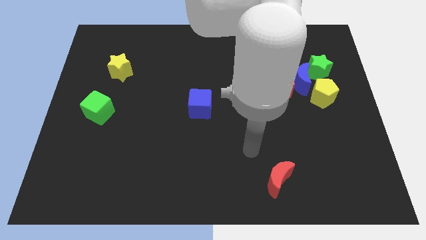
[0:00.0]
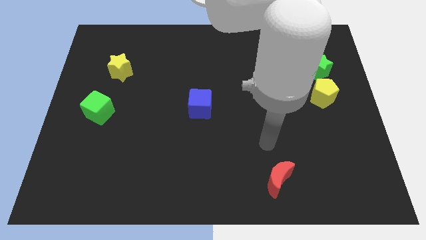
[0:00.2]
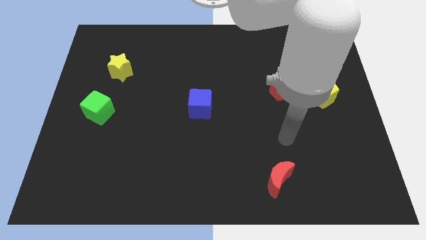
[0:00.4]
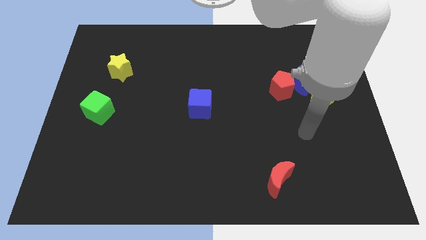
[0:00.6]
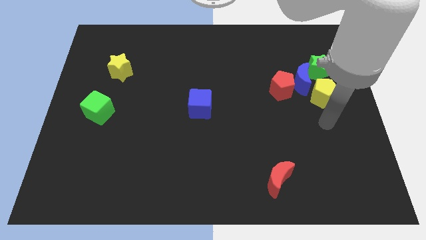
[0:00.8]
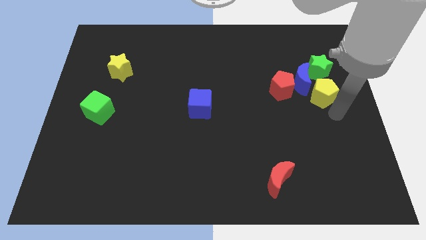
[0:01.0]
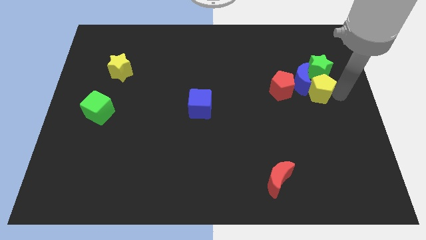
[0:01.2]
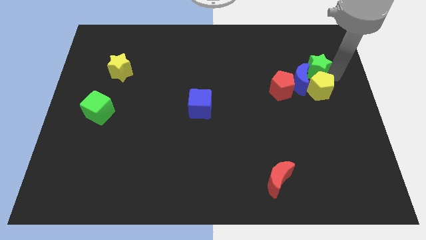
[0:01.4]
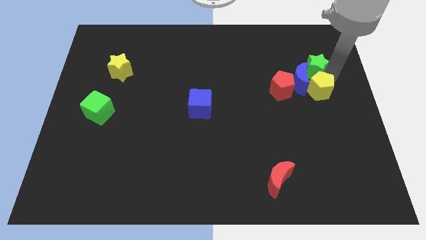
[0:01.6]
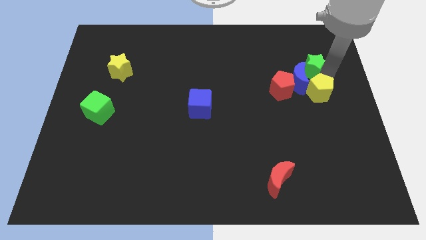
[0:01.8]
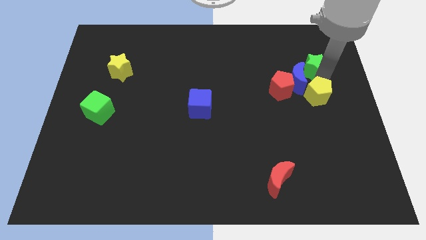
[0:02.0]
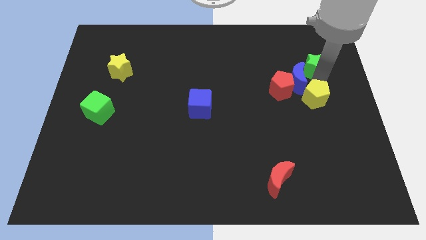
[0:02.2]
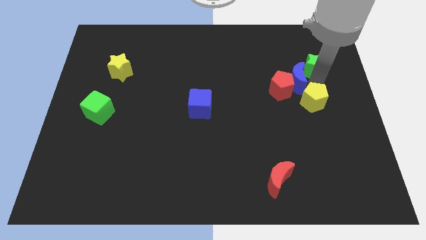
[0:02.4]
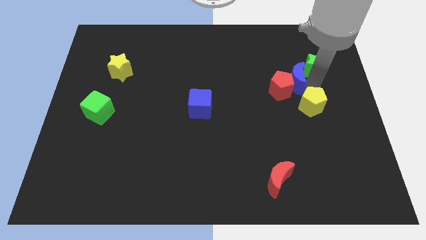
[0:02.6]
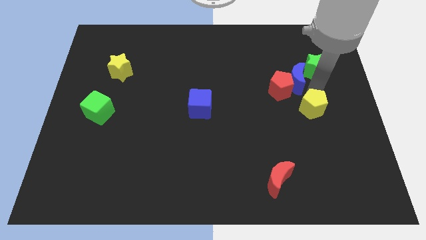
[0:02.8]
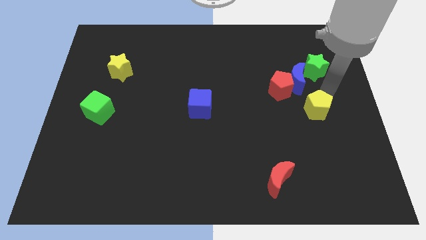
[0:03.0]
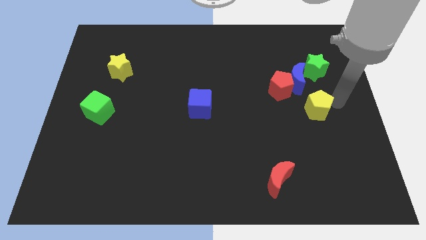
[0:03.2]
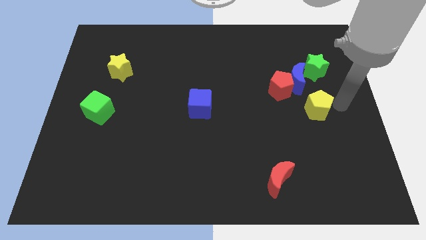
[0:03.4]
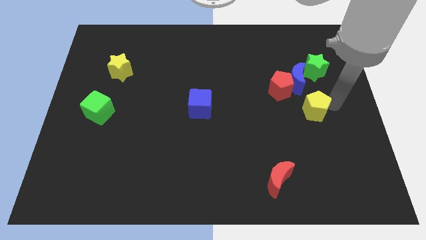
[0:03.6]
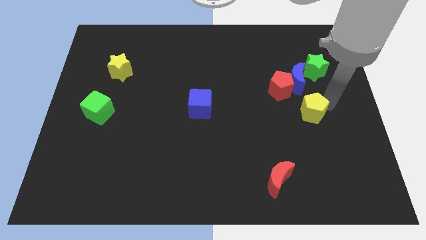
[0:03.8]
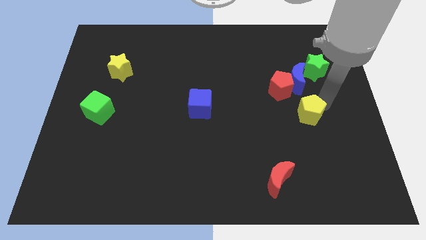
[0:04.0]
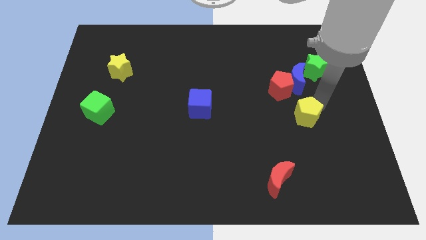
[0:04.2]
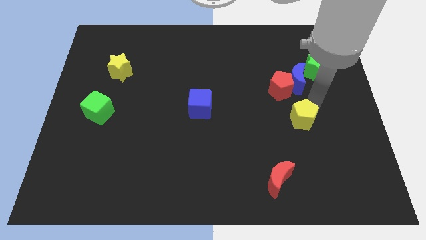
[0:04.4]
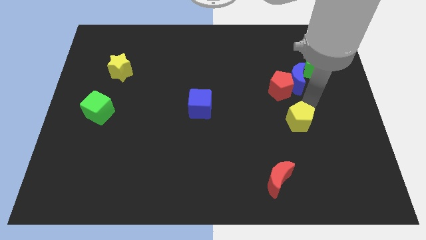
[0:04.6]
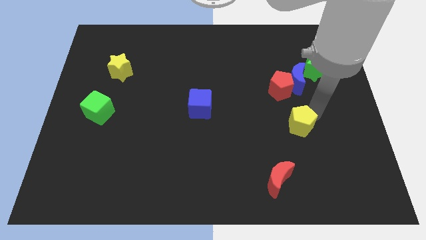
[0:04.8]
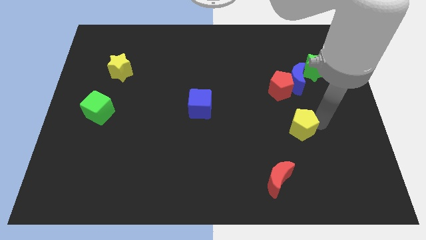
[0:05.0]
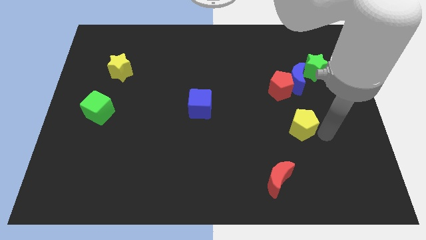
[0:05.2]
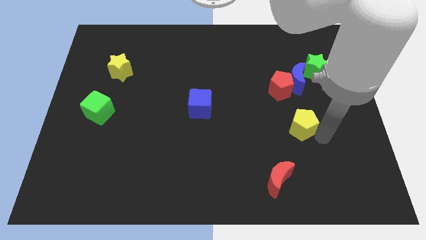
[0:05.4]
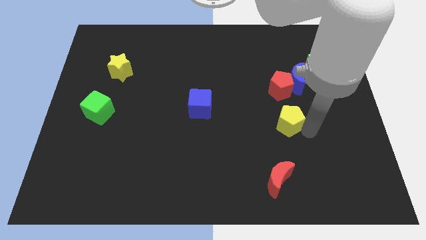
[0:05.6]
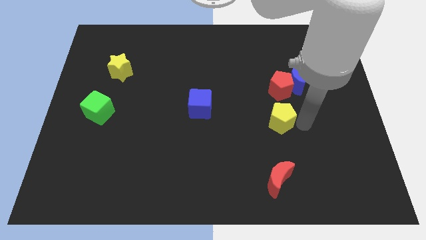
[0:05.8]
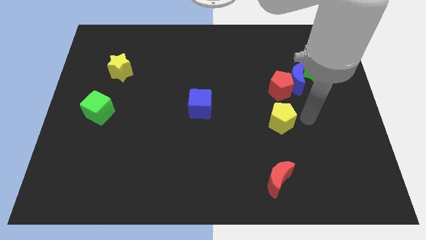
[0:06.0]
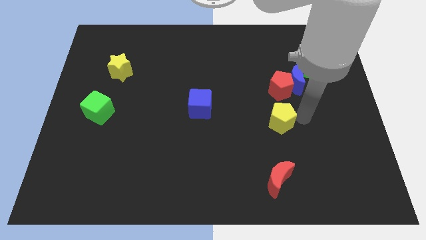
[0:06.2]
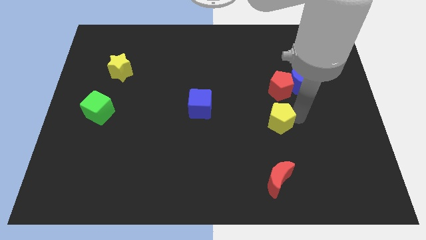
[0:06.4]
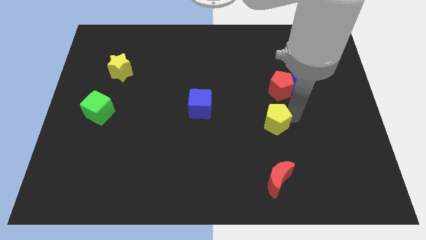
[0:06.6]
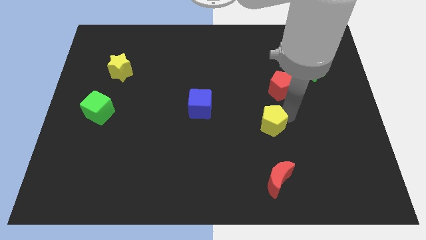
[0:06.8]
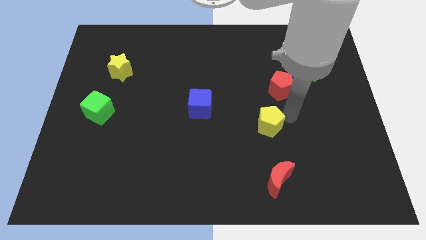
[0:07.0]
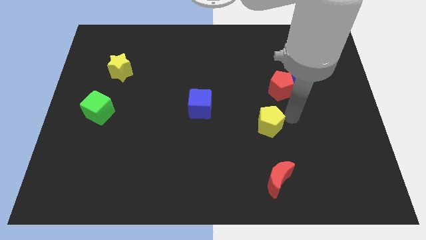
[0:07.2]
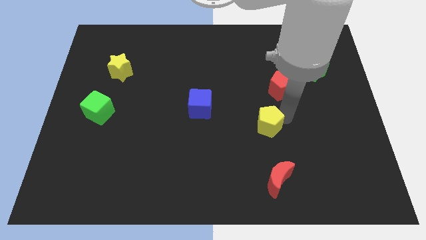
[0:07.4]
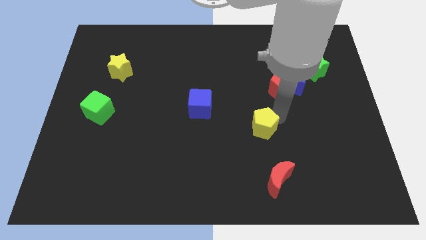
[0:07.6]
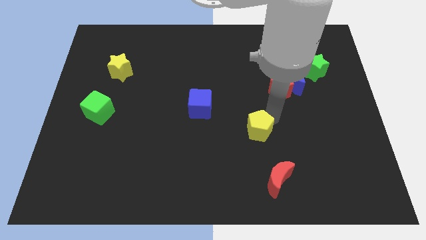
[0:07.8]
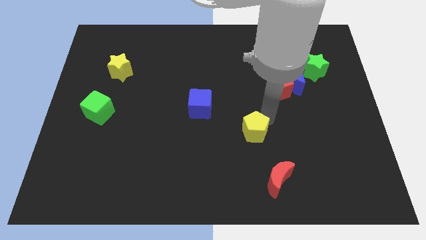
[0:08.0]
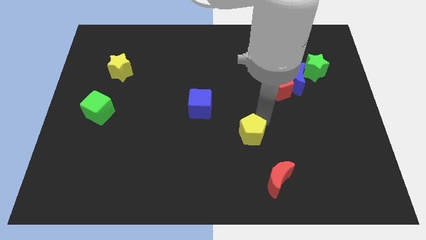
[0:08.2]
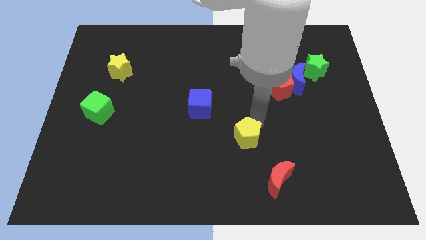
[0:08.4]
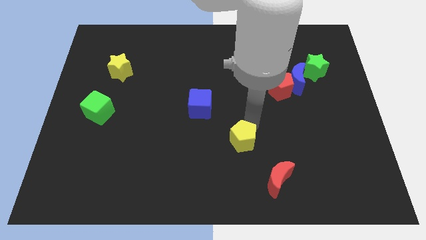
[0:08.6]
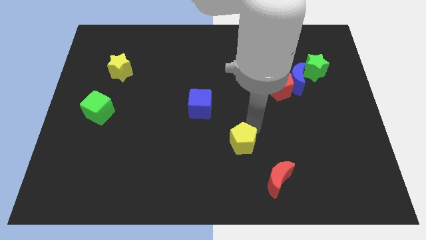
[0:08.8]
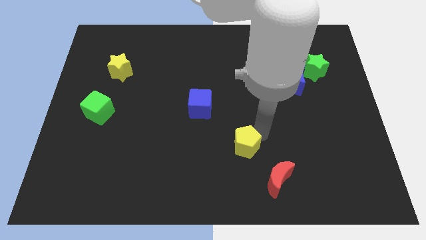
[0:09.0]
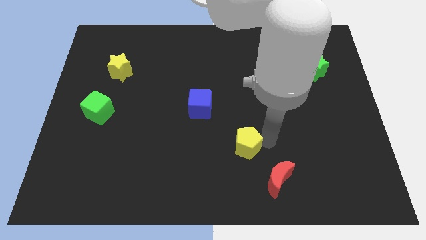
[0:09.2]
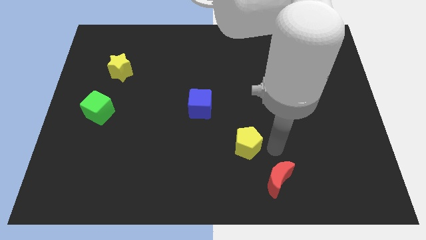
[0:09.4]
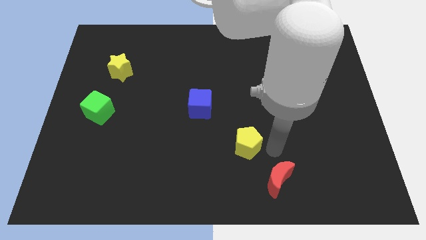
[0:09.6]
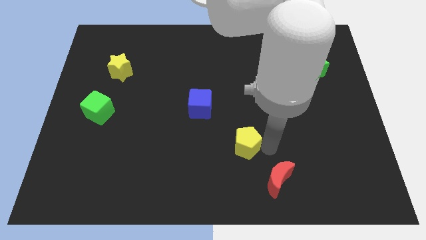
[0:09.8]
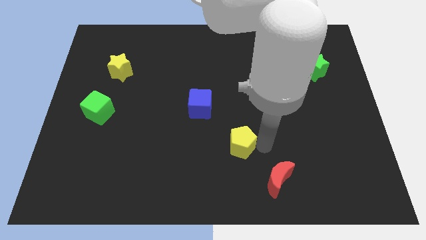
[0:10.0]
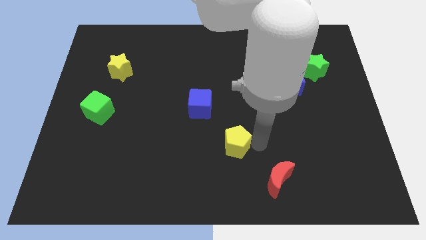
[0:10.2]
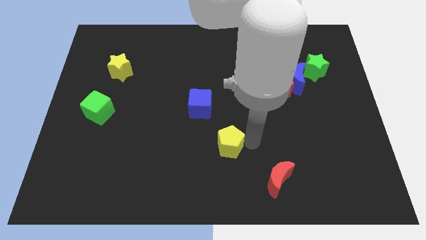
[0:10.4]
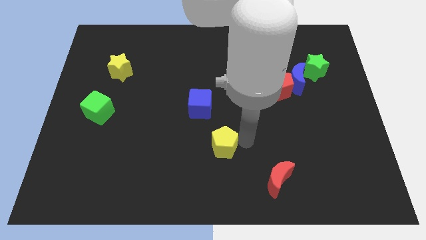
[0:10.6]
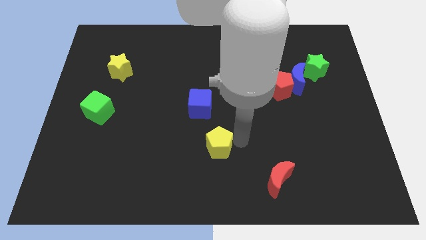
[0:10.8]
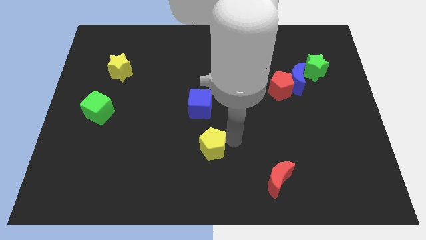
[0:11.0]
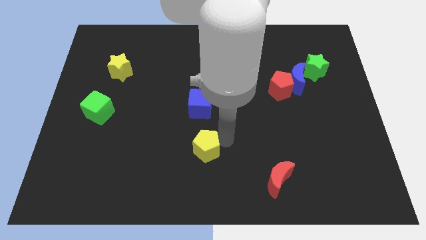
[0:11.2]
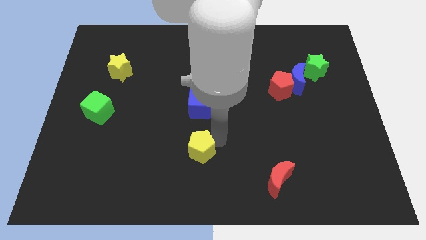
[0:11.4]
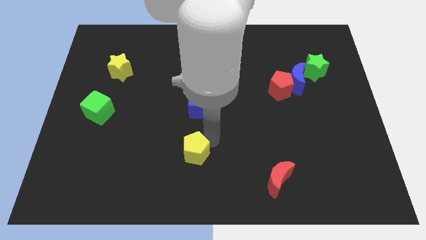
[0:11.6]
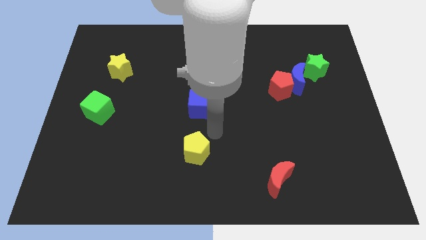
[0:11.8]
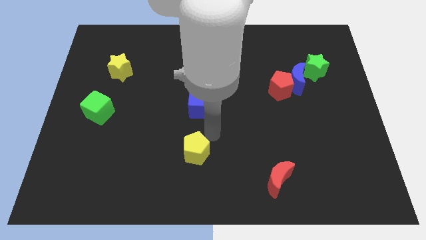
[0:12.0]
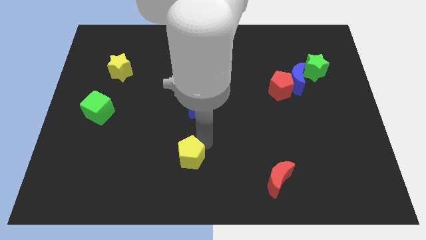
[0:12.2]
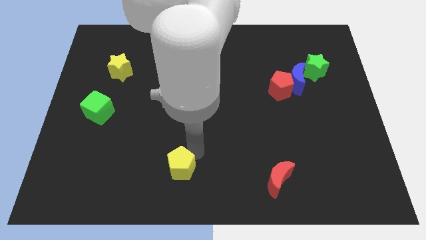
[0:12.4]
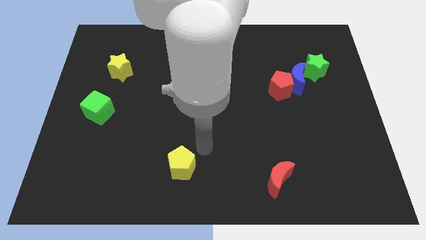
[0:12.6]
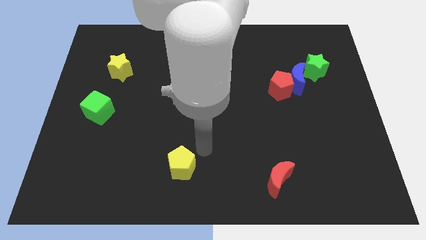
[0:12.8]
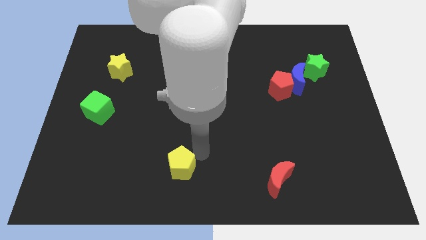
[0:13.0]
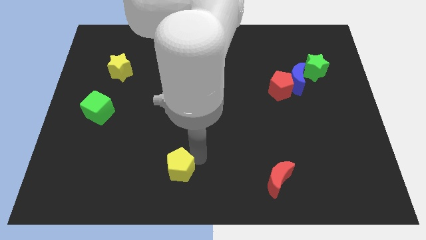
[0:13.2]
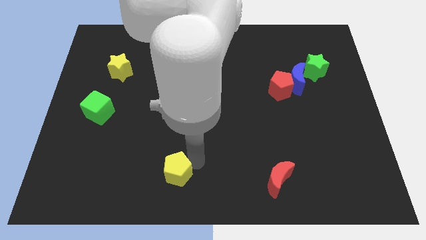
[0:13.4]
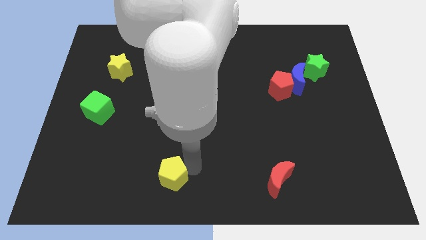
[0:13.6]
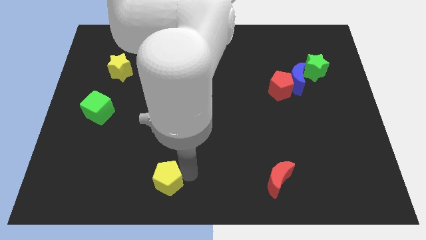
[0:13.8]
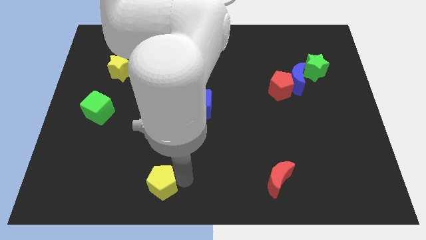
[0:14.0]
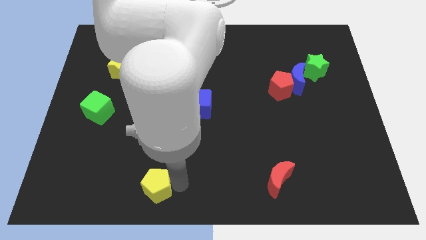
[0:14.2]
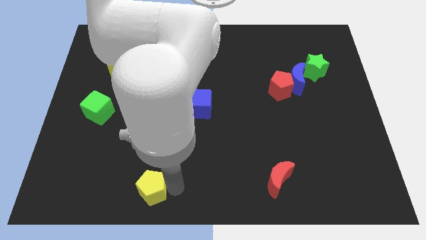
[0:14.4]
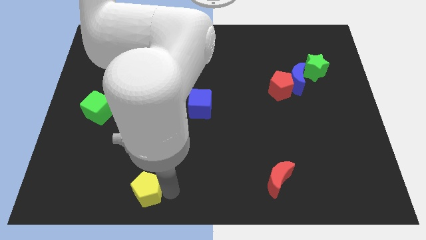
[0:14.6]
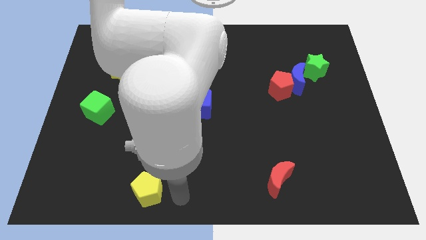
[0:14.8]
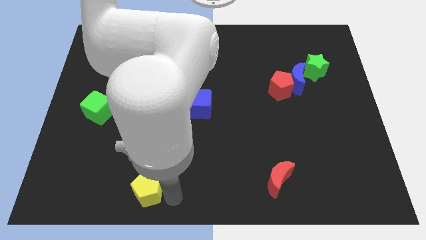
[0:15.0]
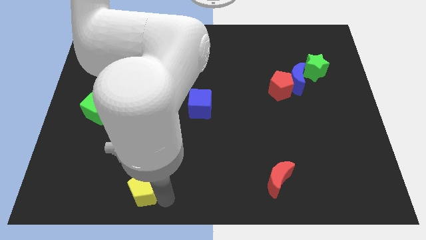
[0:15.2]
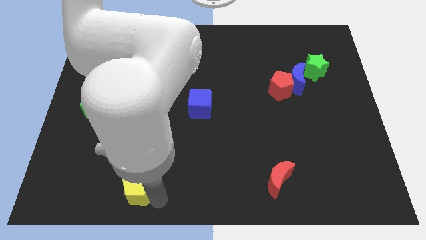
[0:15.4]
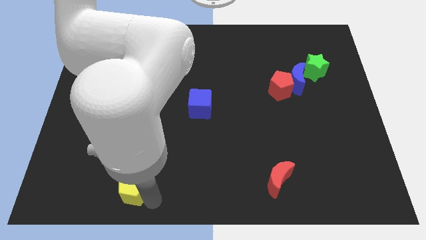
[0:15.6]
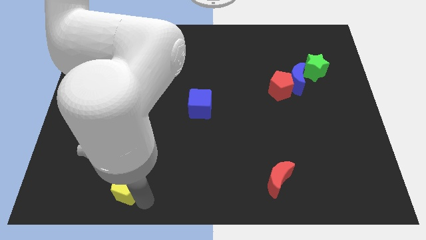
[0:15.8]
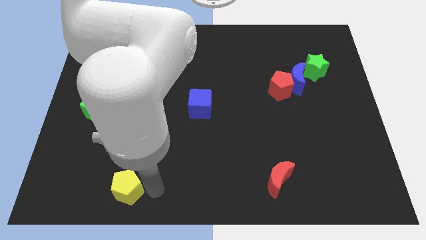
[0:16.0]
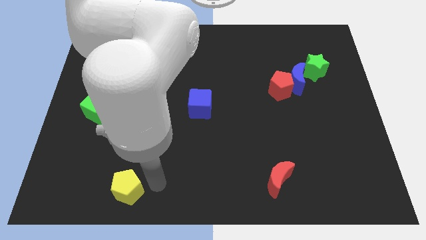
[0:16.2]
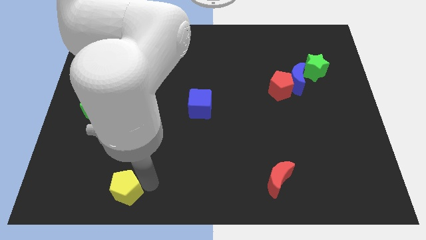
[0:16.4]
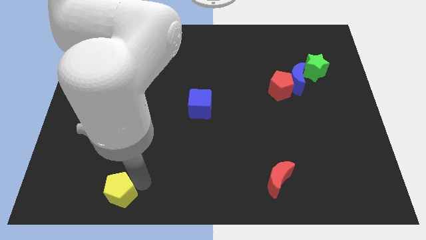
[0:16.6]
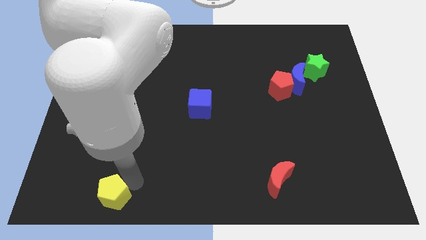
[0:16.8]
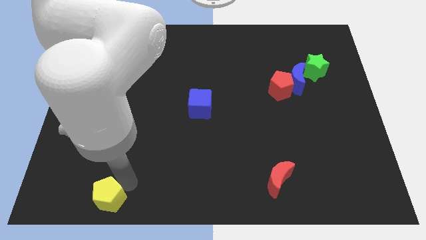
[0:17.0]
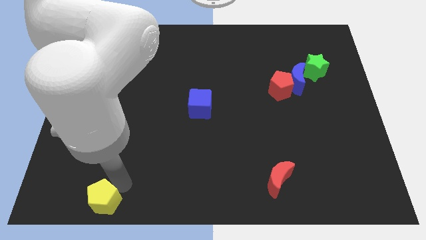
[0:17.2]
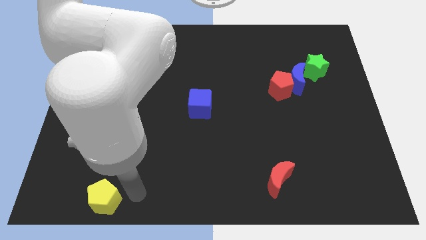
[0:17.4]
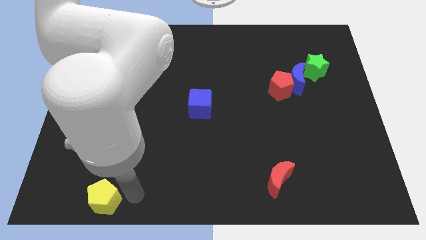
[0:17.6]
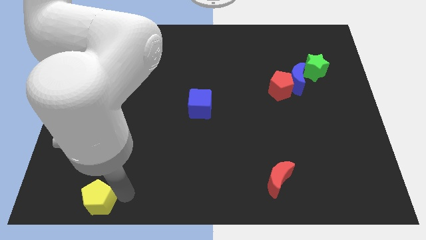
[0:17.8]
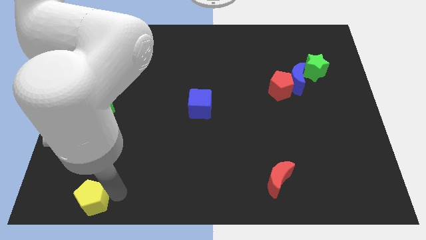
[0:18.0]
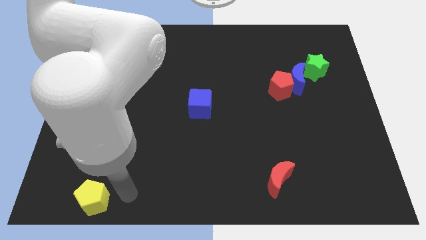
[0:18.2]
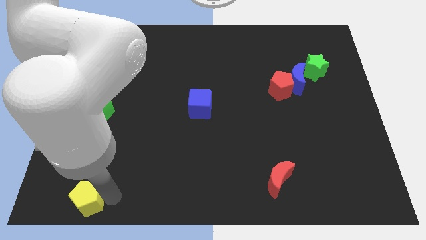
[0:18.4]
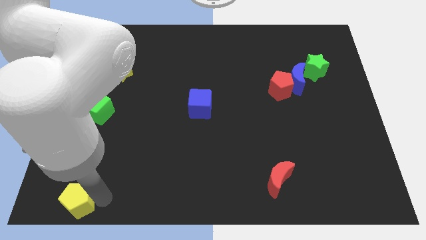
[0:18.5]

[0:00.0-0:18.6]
slide the yellow pentagon to the bottom left
